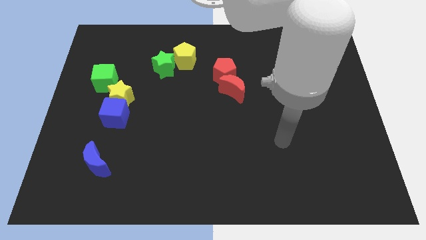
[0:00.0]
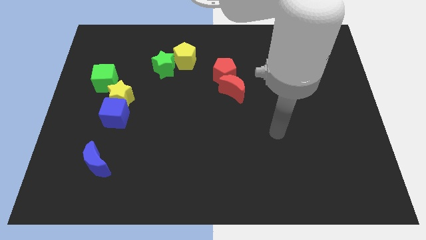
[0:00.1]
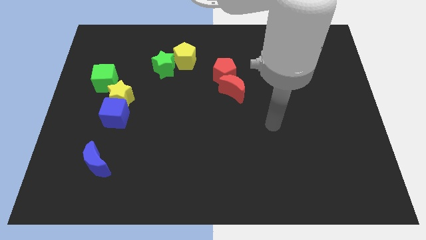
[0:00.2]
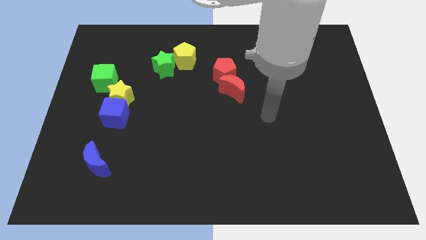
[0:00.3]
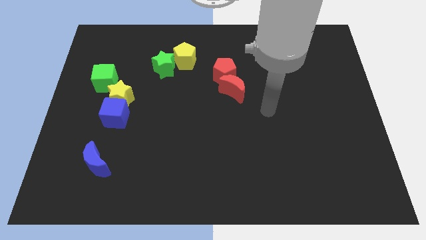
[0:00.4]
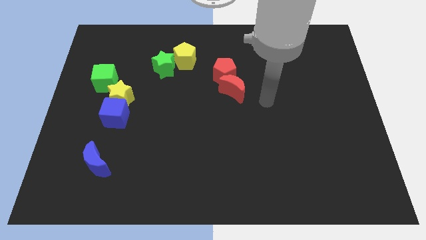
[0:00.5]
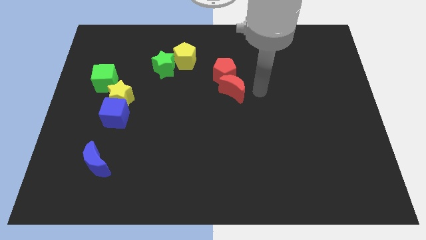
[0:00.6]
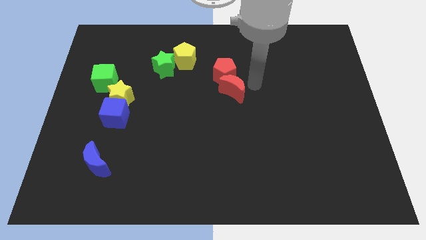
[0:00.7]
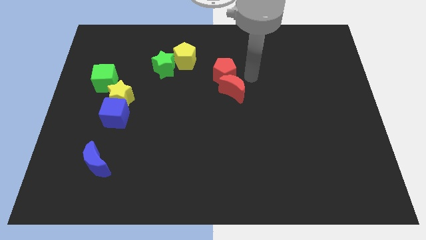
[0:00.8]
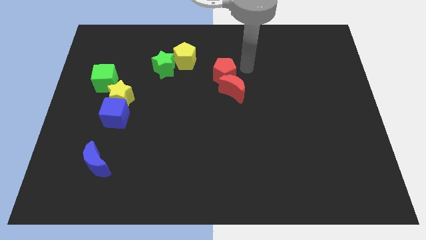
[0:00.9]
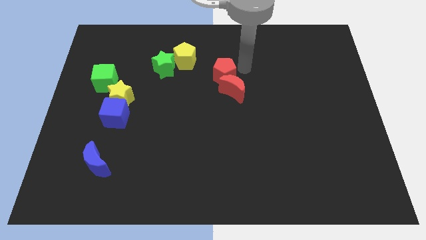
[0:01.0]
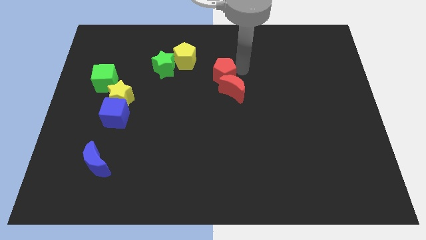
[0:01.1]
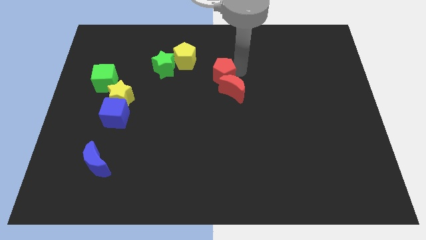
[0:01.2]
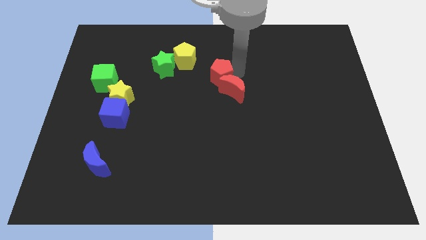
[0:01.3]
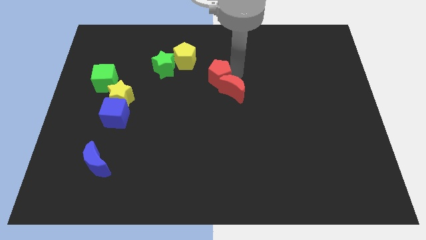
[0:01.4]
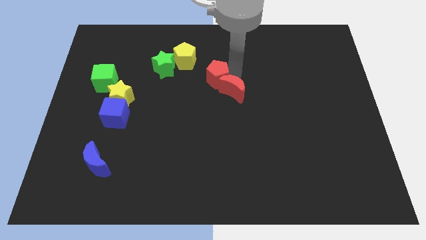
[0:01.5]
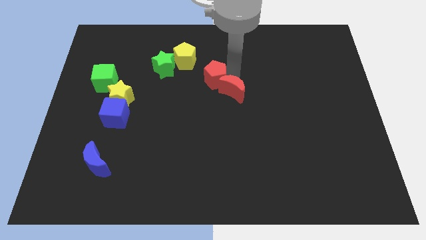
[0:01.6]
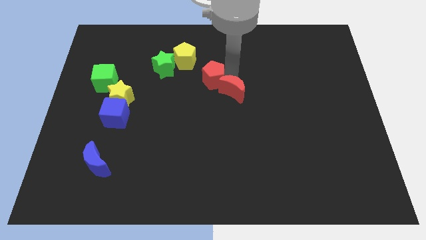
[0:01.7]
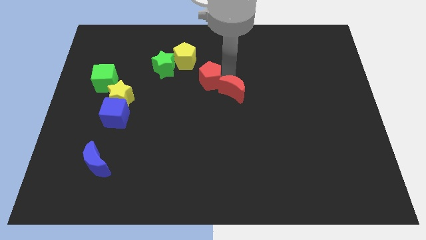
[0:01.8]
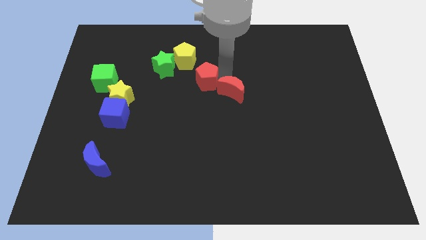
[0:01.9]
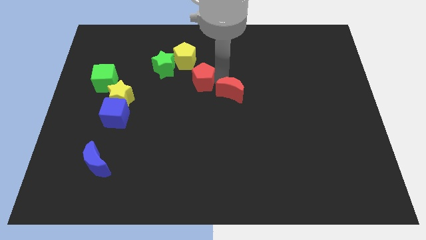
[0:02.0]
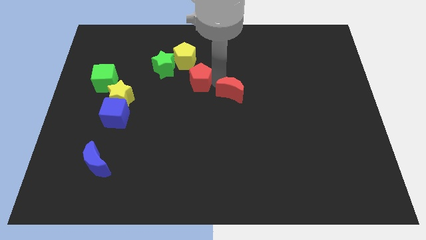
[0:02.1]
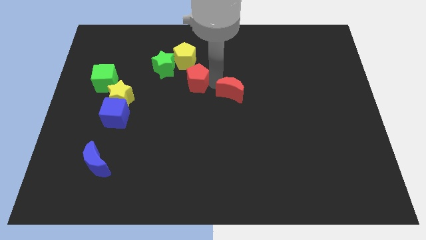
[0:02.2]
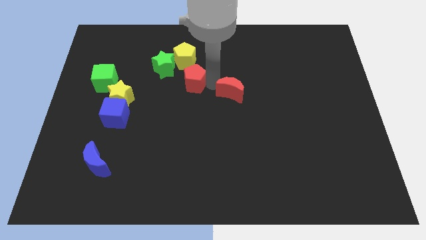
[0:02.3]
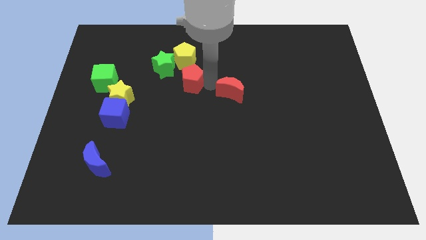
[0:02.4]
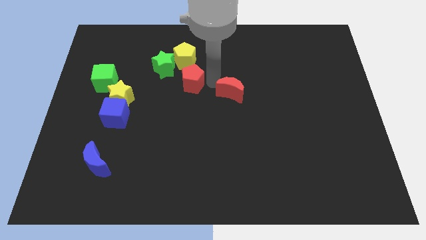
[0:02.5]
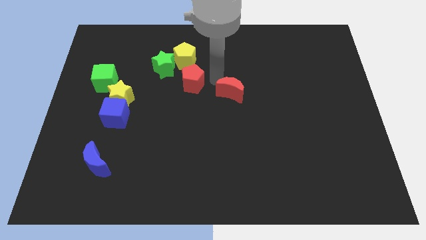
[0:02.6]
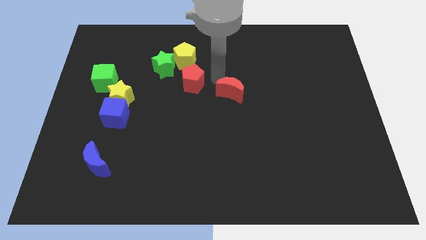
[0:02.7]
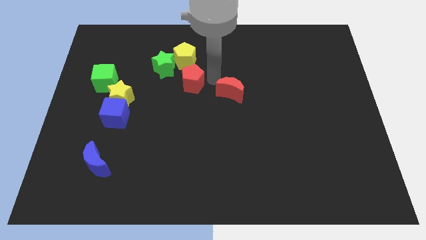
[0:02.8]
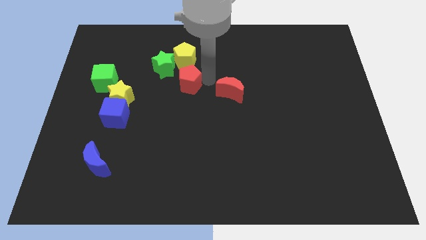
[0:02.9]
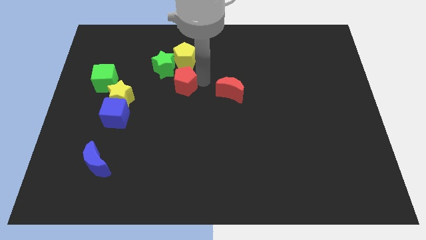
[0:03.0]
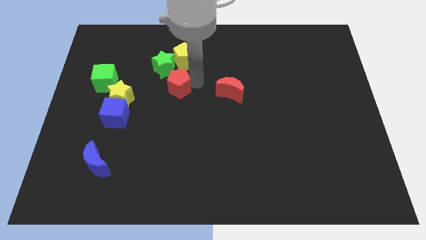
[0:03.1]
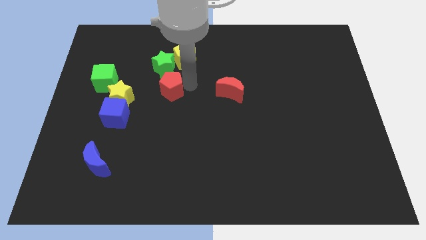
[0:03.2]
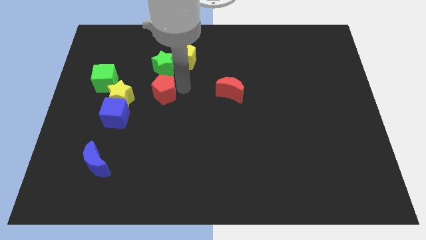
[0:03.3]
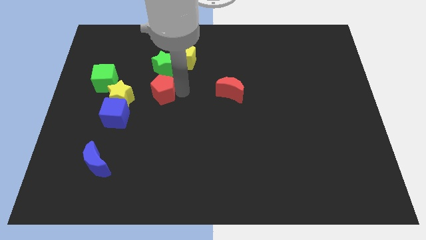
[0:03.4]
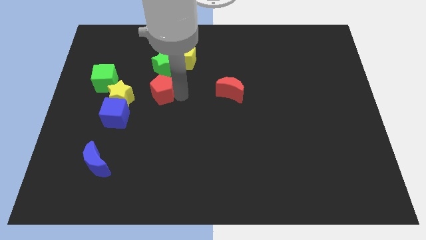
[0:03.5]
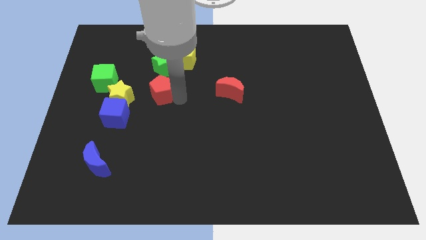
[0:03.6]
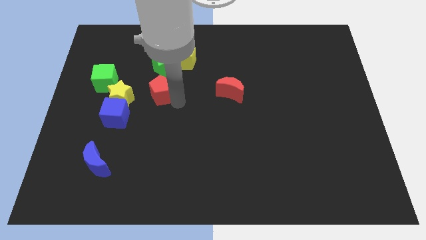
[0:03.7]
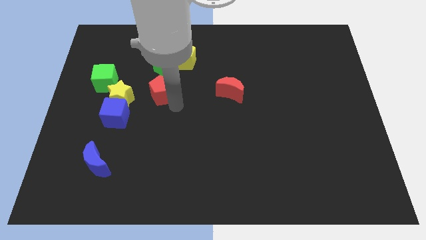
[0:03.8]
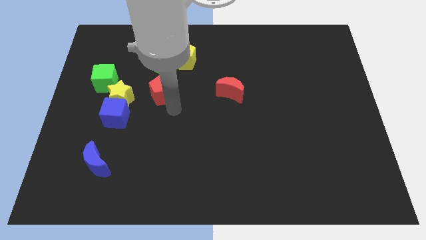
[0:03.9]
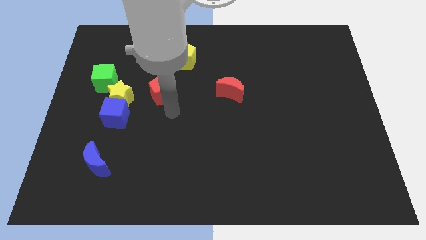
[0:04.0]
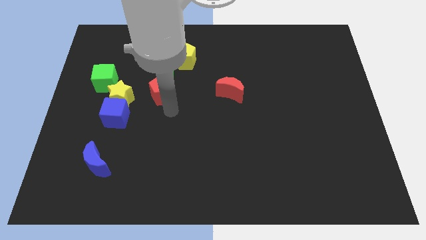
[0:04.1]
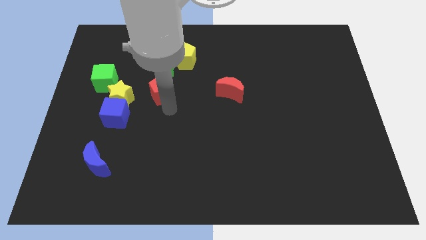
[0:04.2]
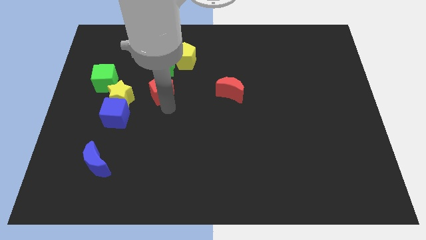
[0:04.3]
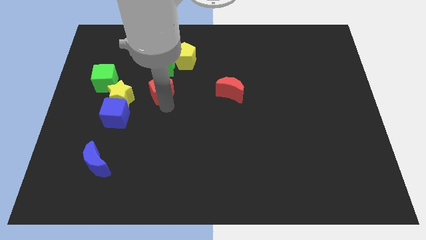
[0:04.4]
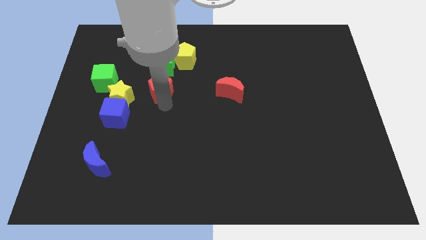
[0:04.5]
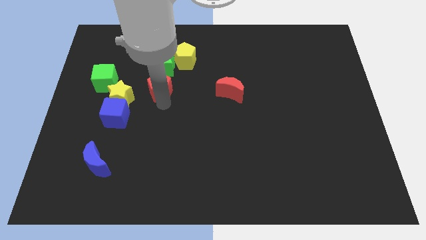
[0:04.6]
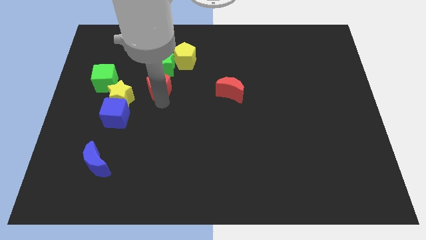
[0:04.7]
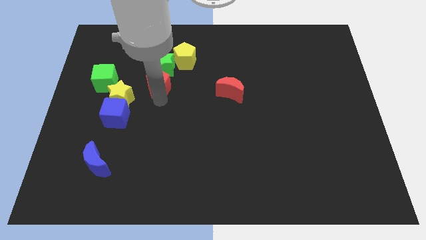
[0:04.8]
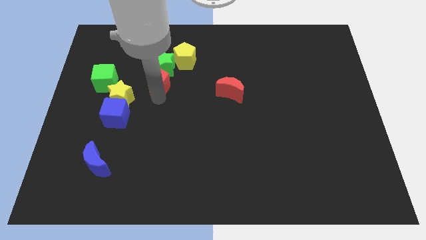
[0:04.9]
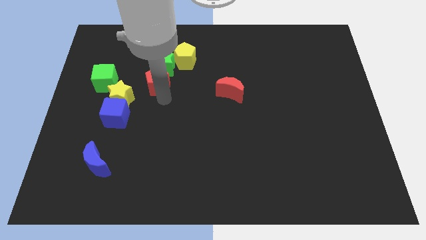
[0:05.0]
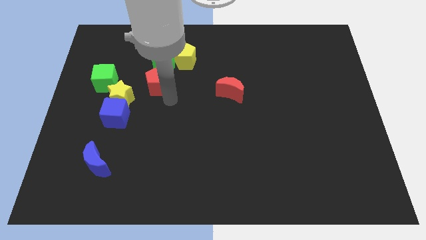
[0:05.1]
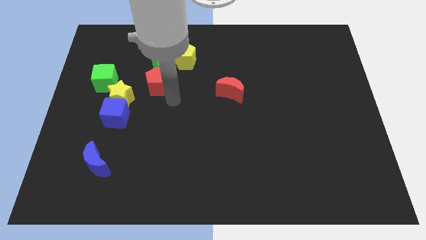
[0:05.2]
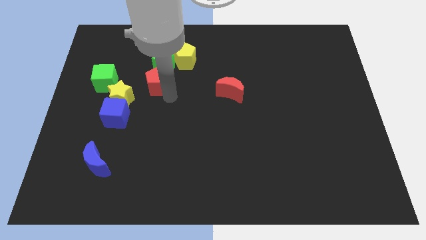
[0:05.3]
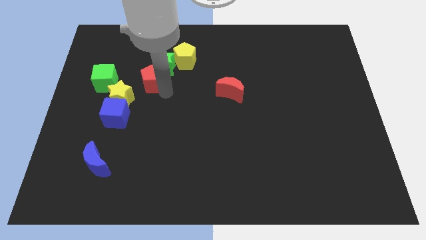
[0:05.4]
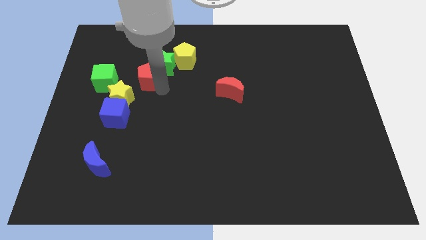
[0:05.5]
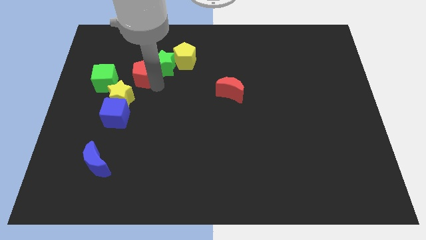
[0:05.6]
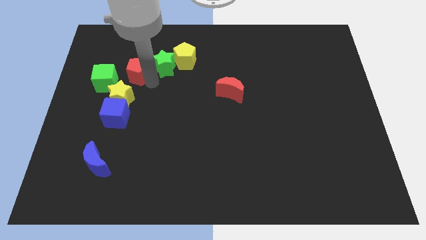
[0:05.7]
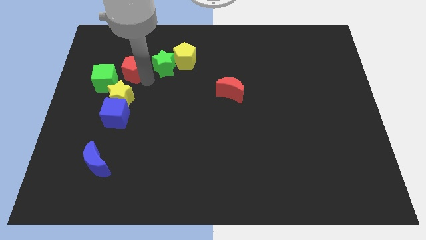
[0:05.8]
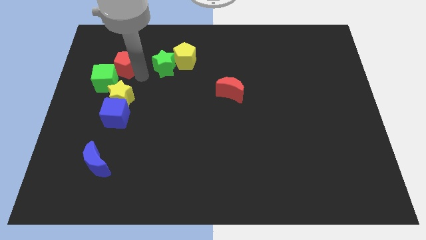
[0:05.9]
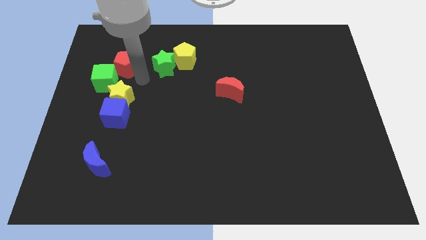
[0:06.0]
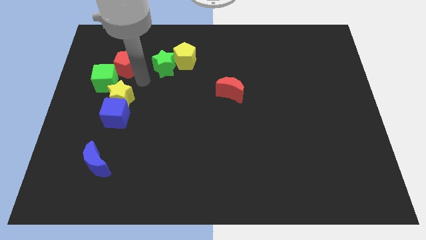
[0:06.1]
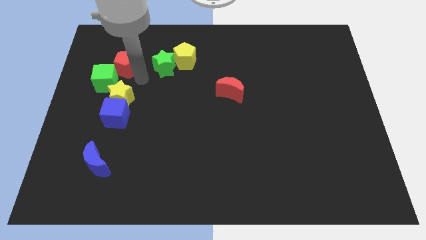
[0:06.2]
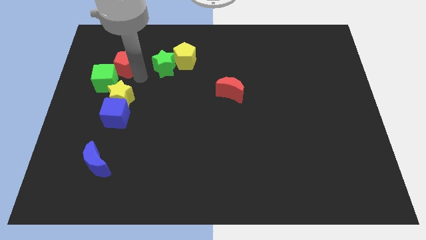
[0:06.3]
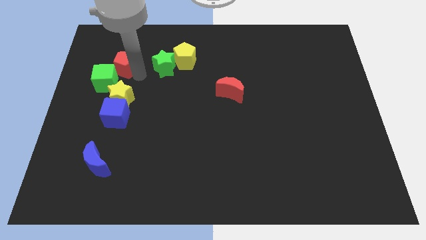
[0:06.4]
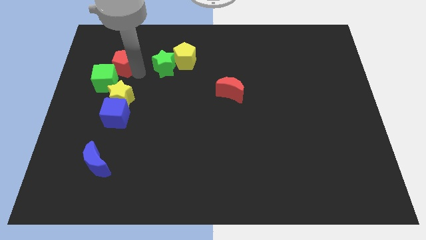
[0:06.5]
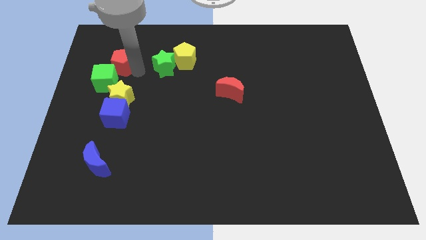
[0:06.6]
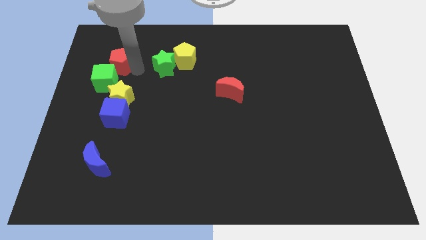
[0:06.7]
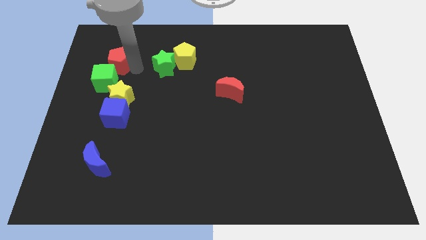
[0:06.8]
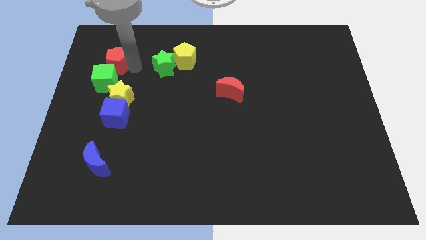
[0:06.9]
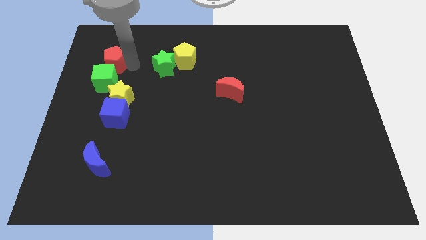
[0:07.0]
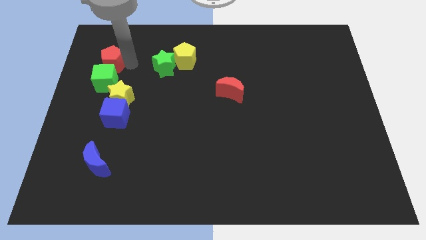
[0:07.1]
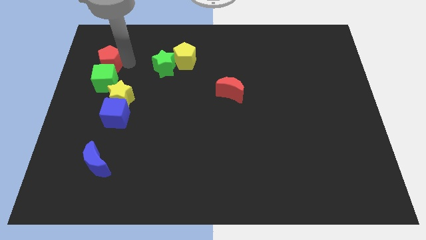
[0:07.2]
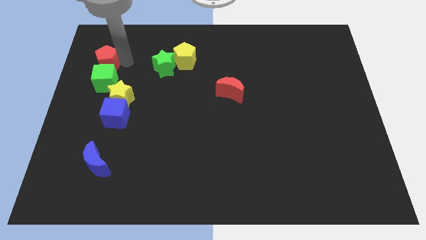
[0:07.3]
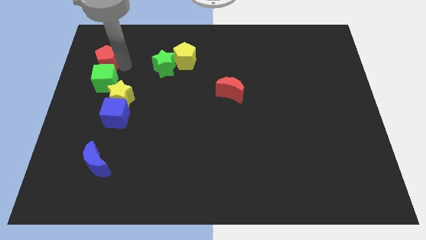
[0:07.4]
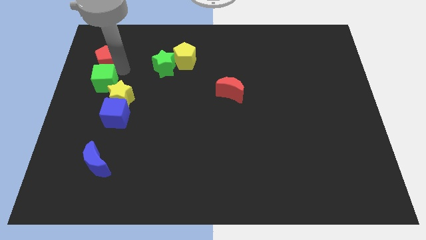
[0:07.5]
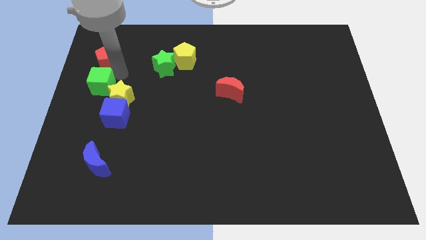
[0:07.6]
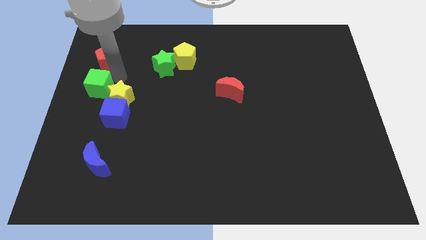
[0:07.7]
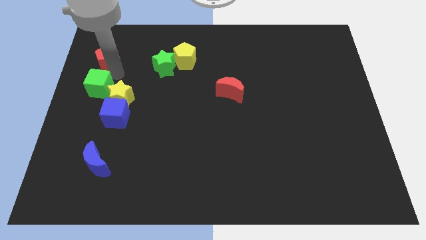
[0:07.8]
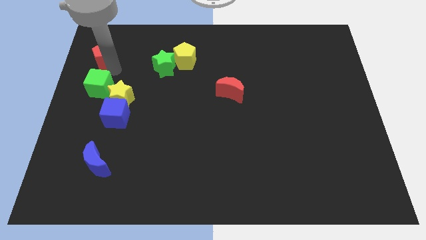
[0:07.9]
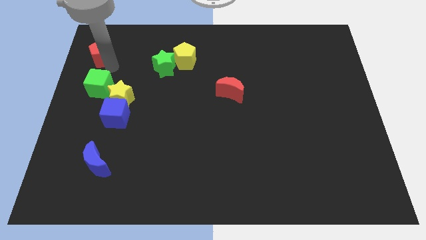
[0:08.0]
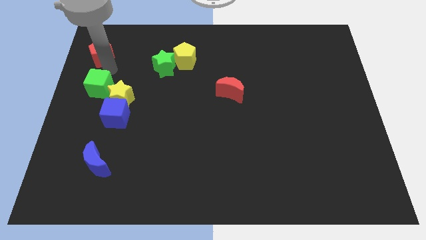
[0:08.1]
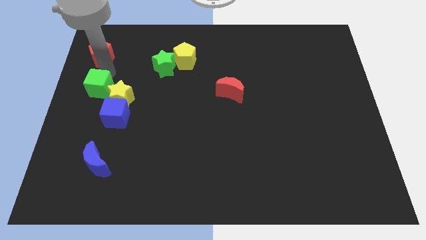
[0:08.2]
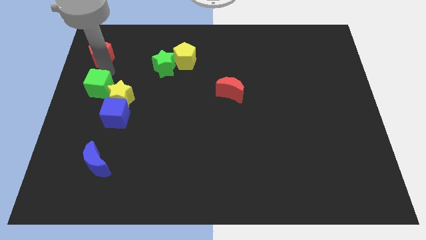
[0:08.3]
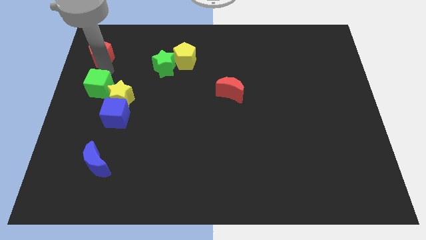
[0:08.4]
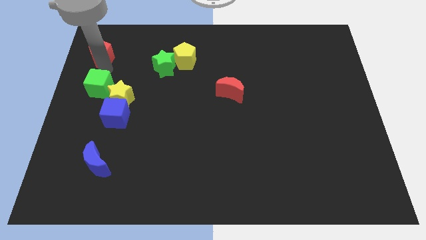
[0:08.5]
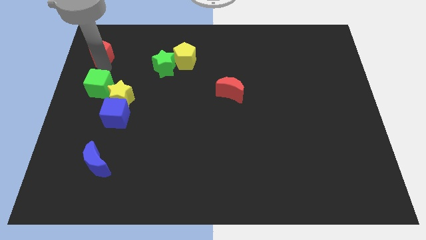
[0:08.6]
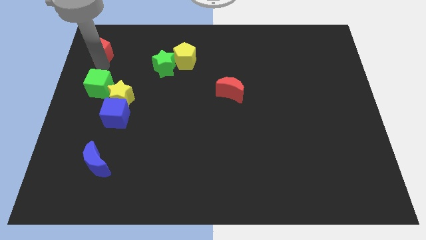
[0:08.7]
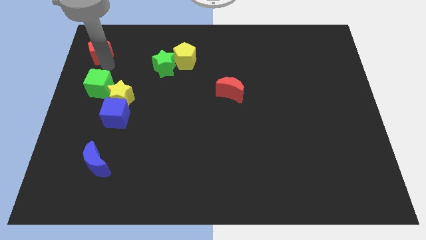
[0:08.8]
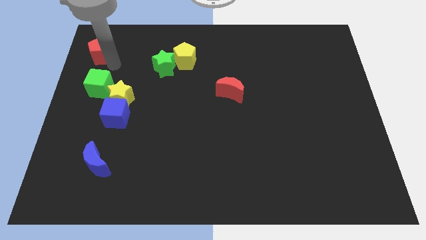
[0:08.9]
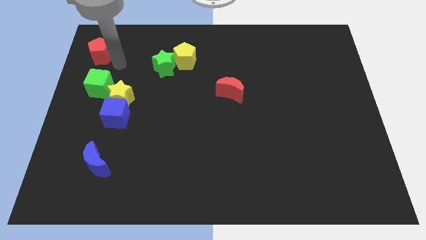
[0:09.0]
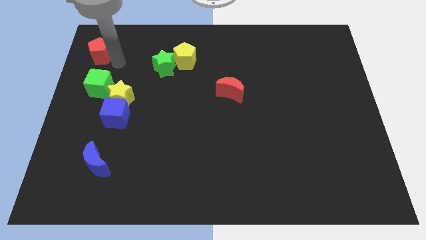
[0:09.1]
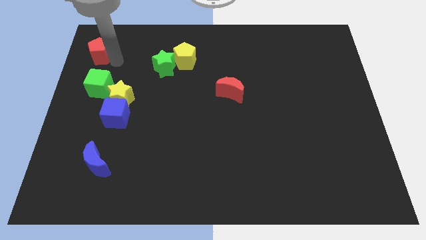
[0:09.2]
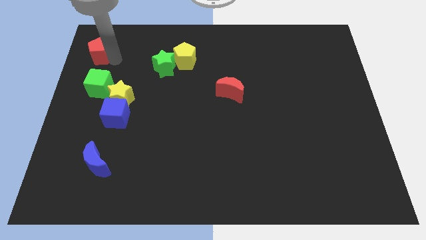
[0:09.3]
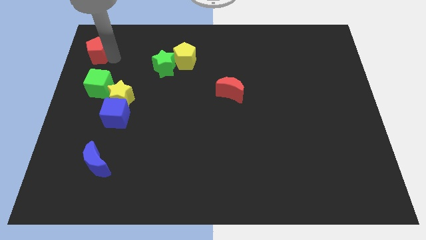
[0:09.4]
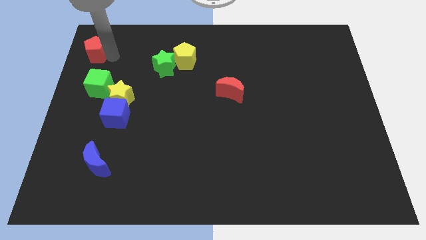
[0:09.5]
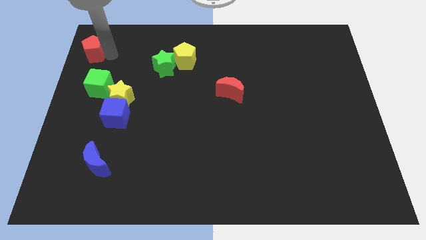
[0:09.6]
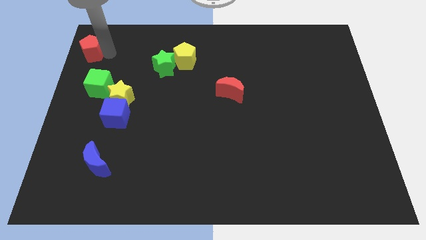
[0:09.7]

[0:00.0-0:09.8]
slide the red pentagon to the top left
